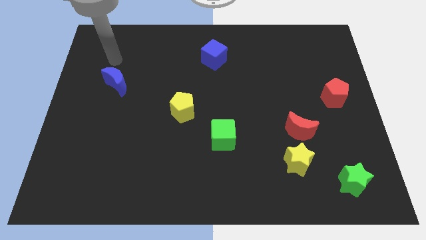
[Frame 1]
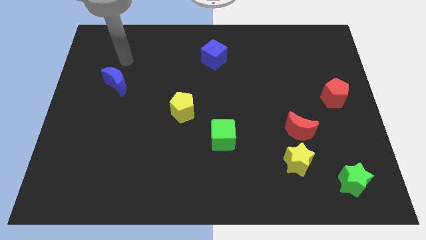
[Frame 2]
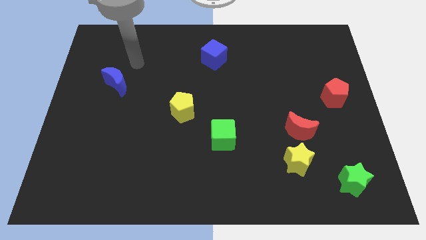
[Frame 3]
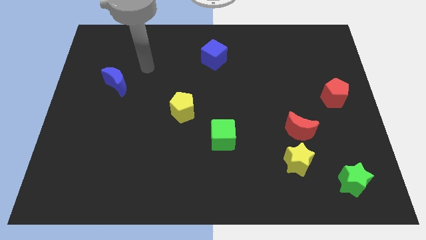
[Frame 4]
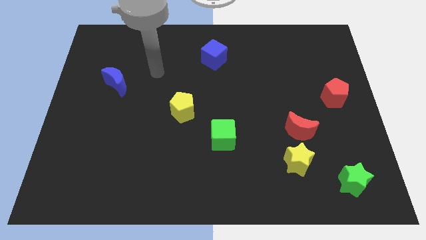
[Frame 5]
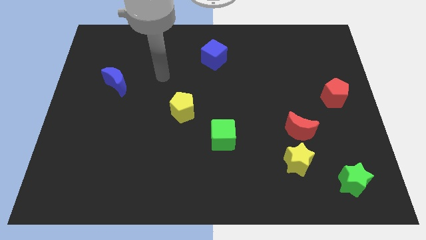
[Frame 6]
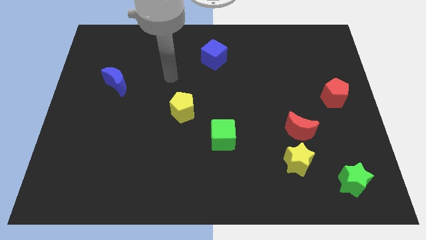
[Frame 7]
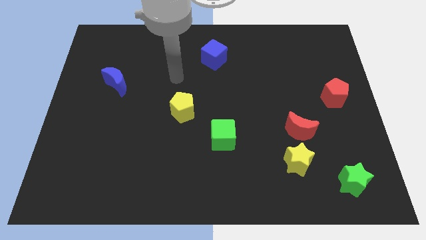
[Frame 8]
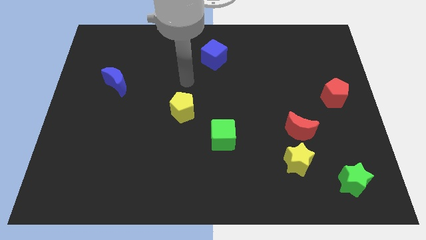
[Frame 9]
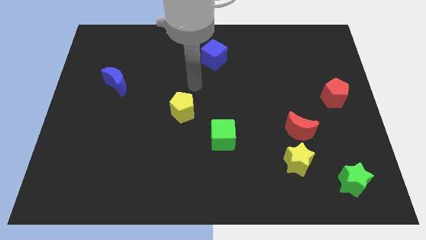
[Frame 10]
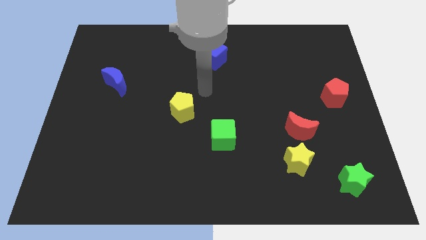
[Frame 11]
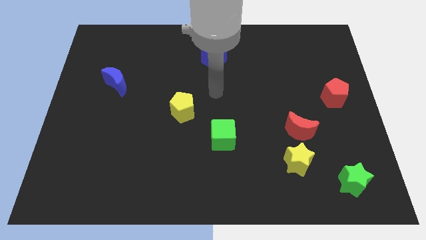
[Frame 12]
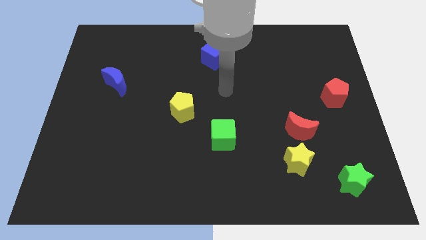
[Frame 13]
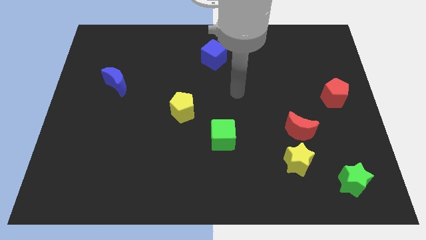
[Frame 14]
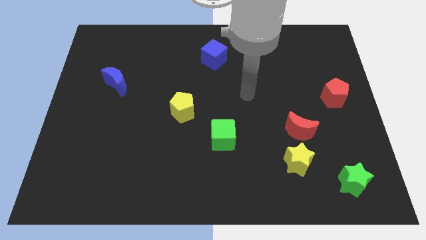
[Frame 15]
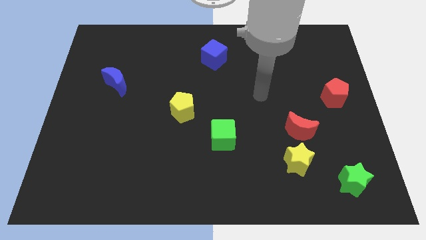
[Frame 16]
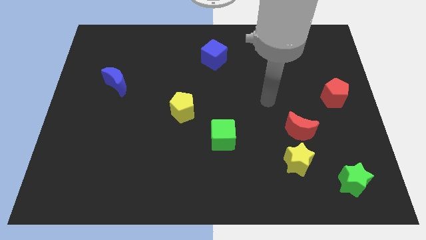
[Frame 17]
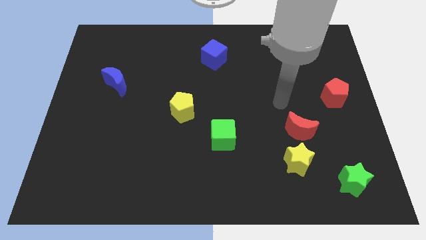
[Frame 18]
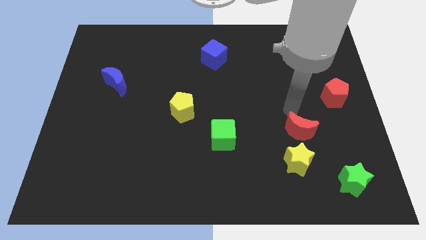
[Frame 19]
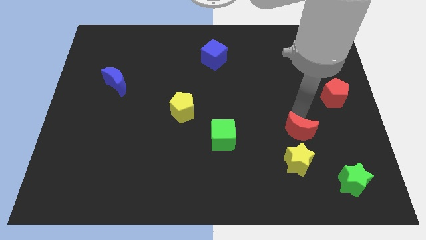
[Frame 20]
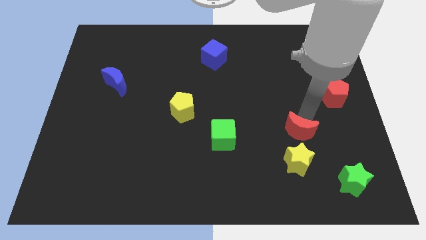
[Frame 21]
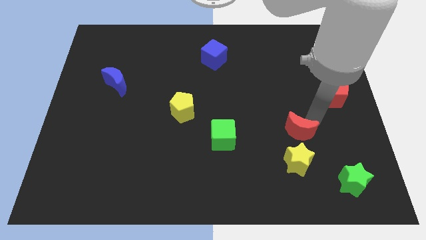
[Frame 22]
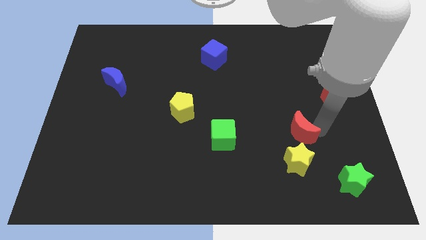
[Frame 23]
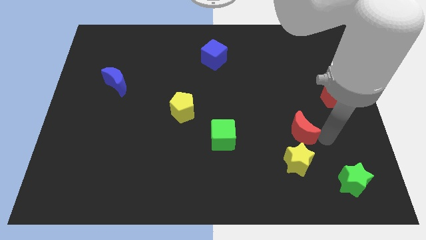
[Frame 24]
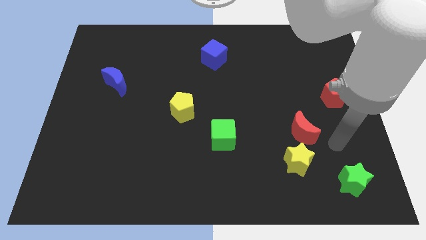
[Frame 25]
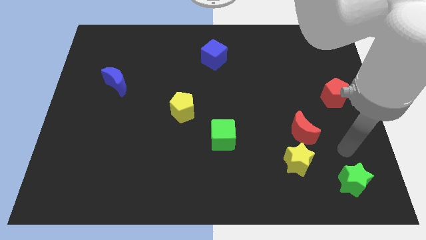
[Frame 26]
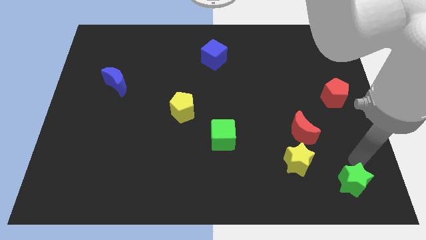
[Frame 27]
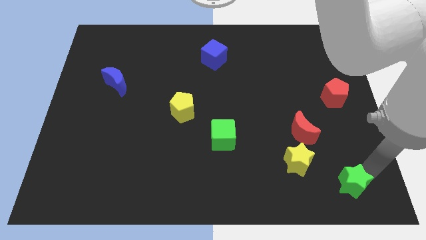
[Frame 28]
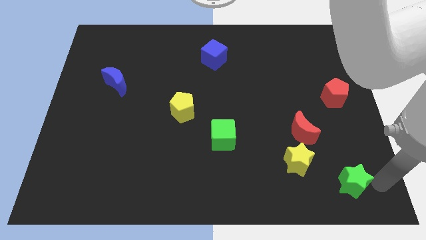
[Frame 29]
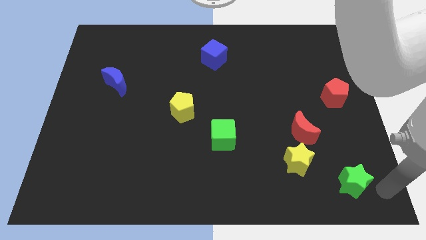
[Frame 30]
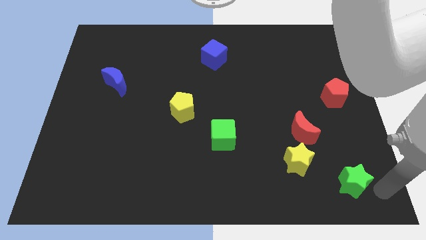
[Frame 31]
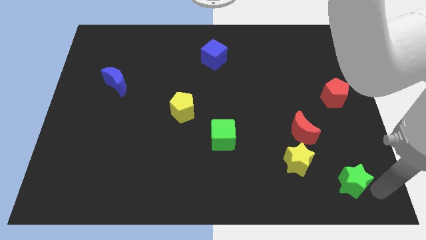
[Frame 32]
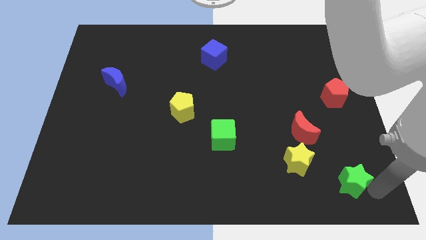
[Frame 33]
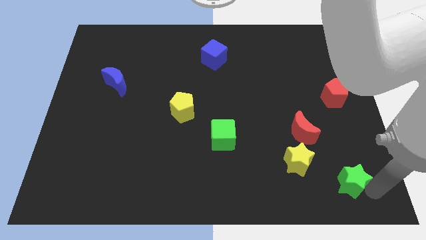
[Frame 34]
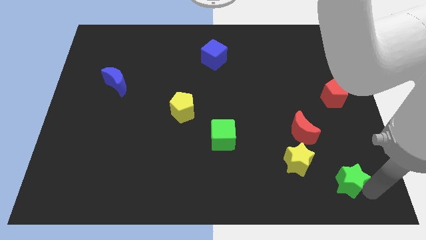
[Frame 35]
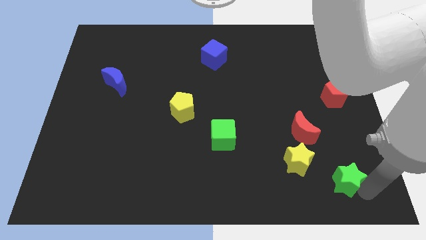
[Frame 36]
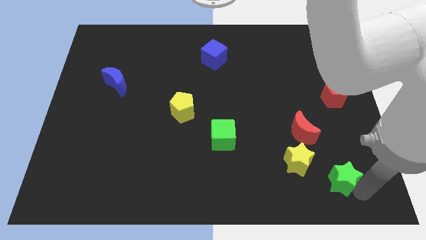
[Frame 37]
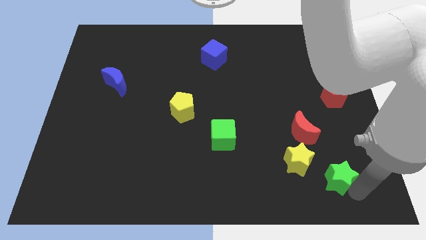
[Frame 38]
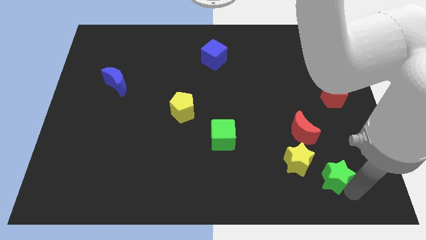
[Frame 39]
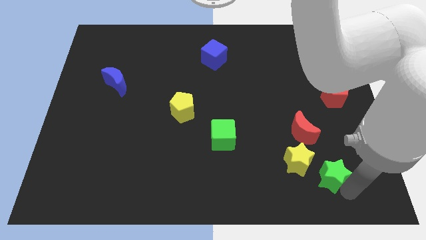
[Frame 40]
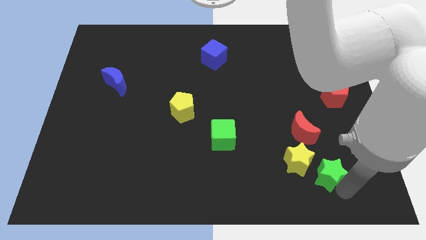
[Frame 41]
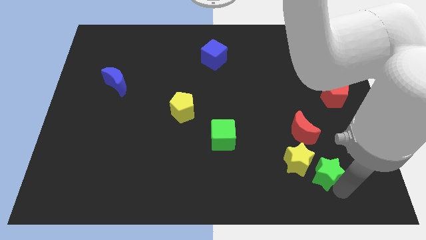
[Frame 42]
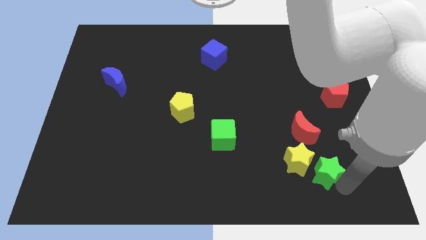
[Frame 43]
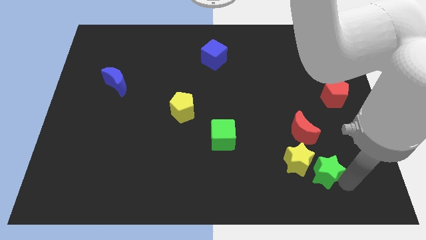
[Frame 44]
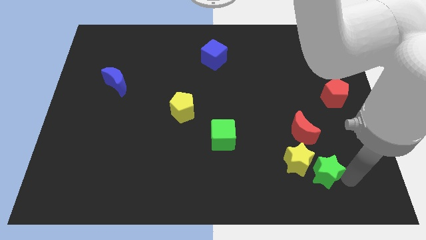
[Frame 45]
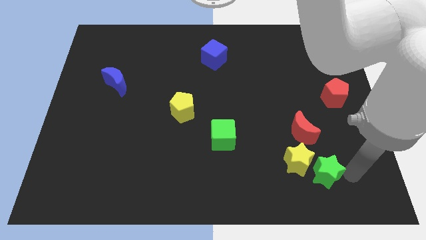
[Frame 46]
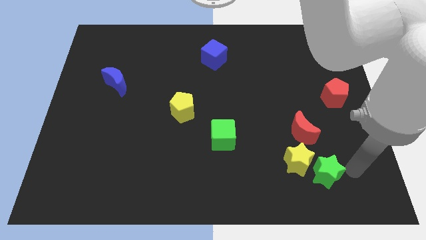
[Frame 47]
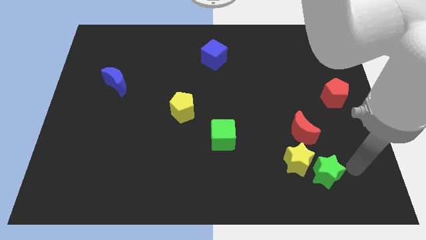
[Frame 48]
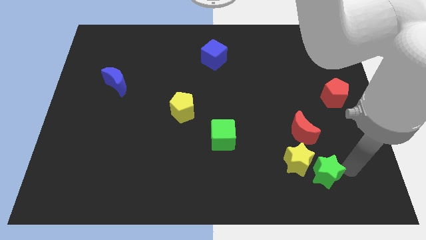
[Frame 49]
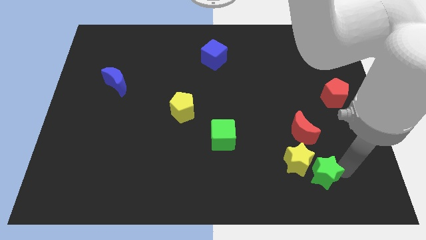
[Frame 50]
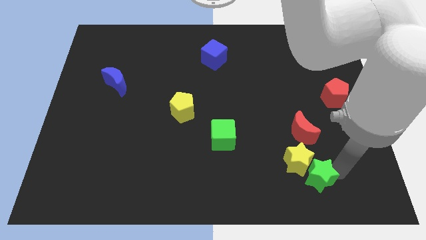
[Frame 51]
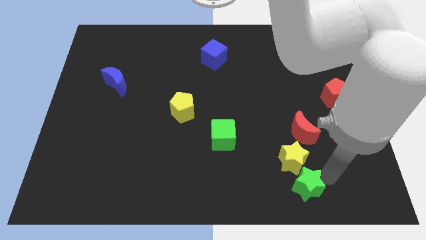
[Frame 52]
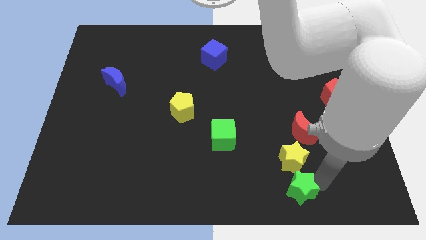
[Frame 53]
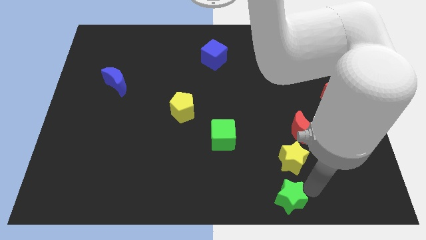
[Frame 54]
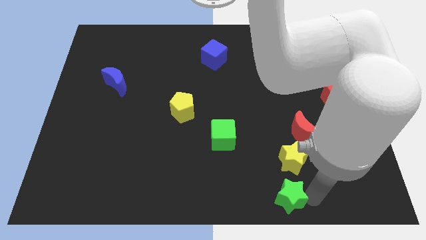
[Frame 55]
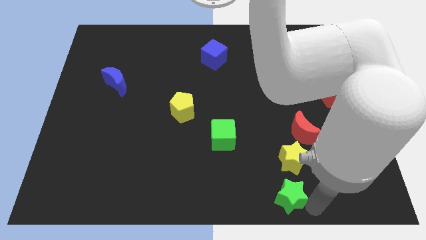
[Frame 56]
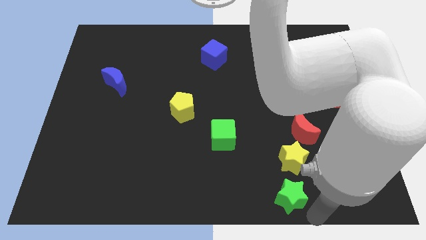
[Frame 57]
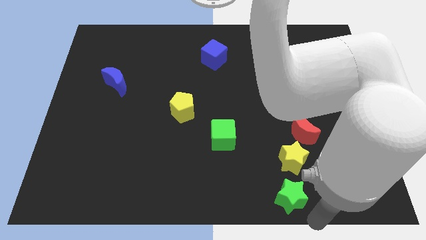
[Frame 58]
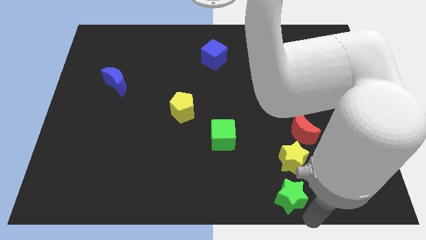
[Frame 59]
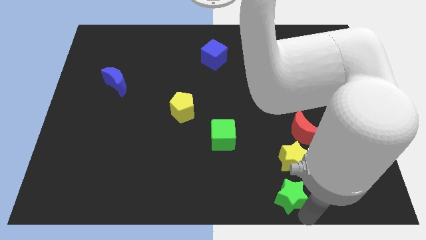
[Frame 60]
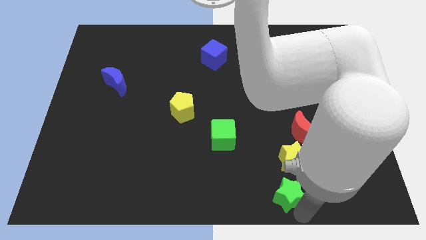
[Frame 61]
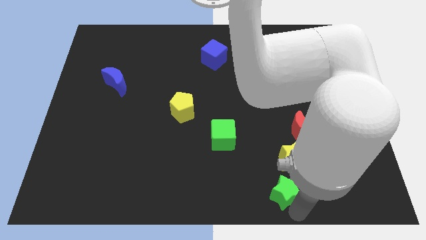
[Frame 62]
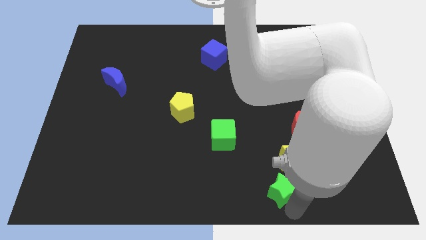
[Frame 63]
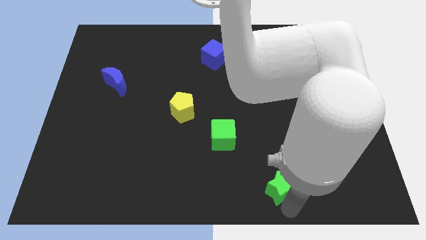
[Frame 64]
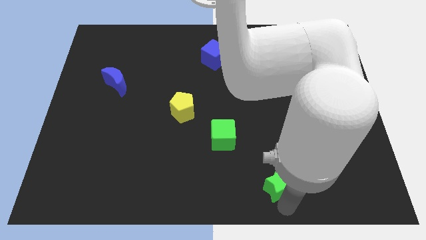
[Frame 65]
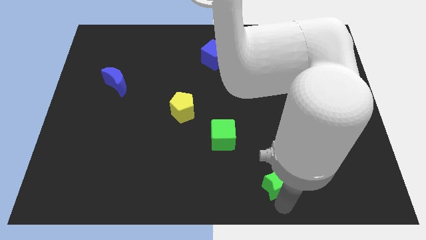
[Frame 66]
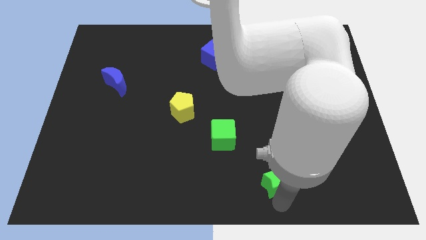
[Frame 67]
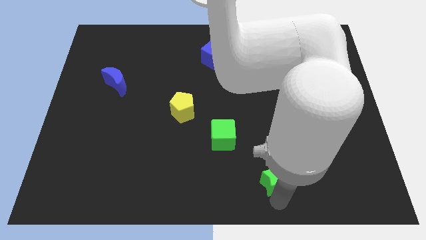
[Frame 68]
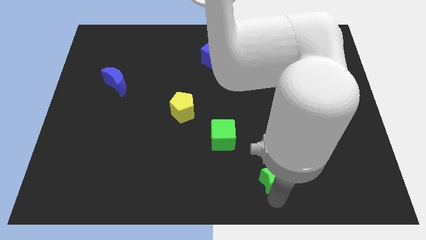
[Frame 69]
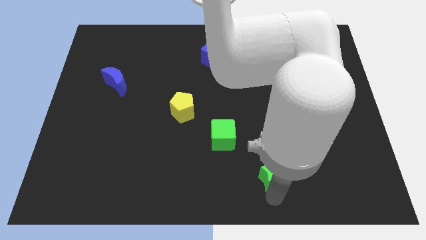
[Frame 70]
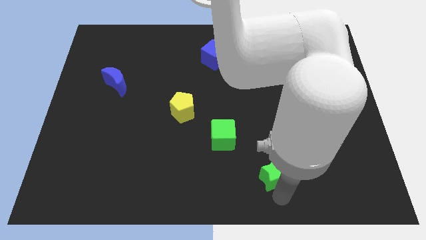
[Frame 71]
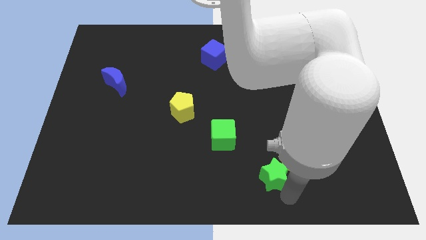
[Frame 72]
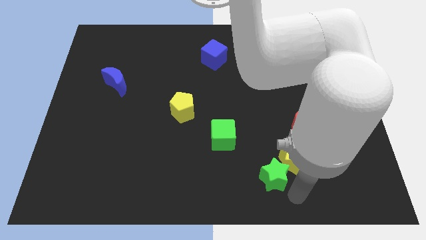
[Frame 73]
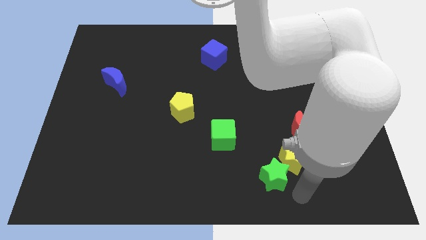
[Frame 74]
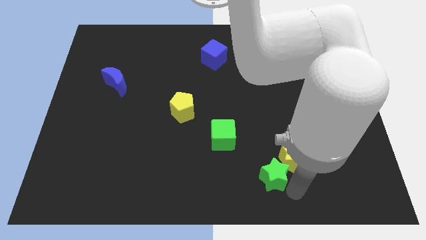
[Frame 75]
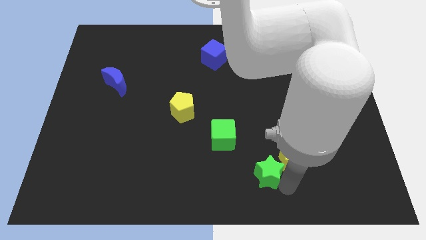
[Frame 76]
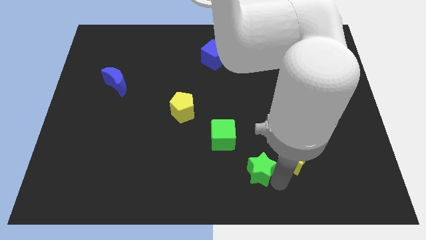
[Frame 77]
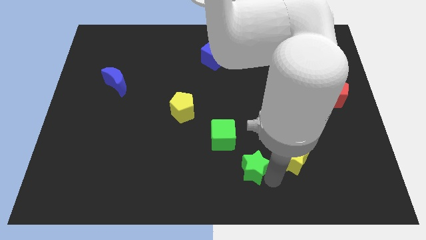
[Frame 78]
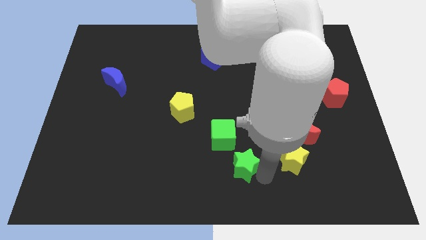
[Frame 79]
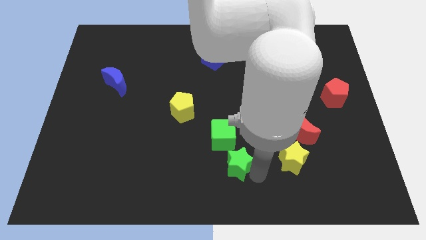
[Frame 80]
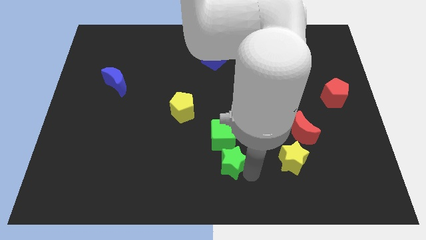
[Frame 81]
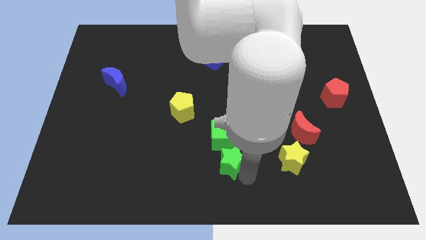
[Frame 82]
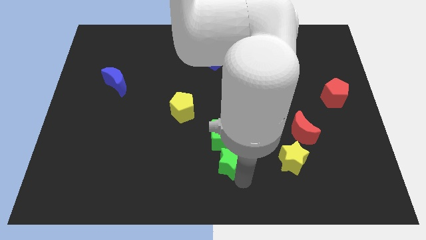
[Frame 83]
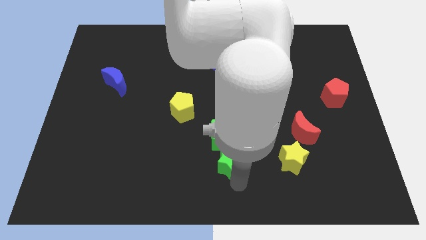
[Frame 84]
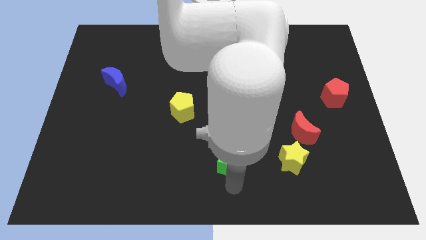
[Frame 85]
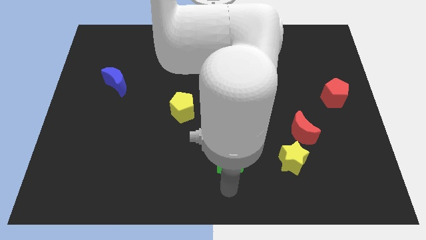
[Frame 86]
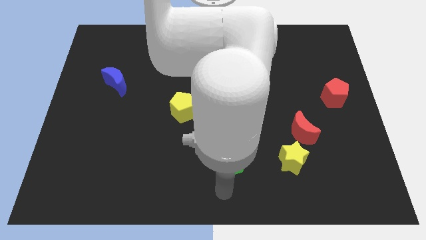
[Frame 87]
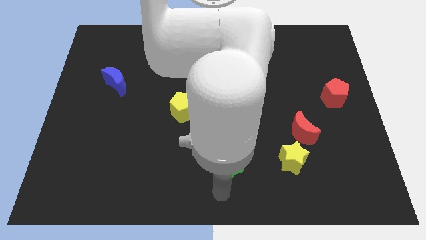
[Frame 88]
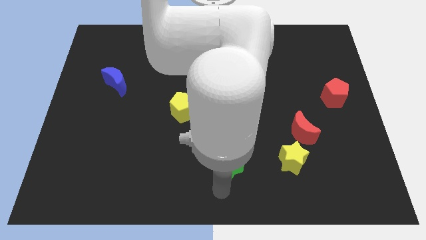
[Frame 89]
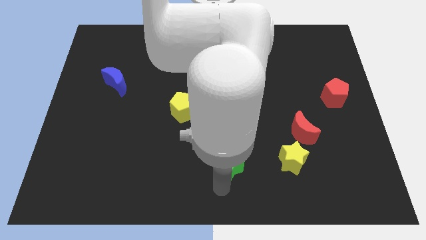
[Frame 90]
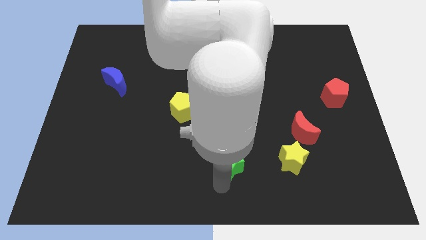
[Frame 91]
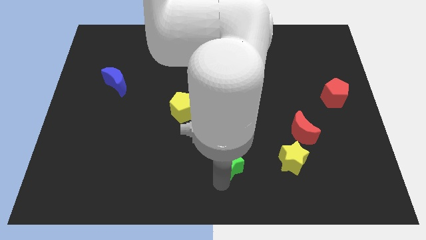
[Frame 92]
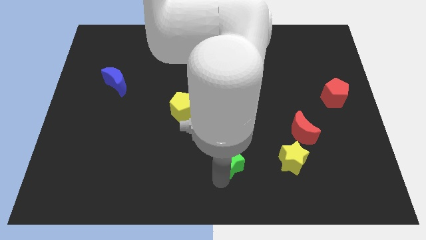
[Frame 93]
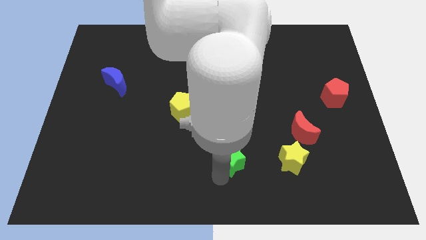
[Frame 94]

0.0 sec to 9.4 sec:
slide the green star next to the green cube
